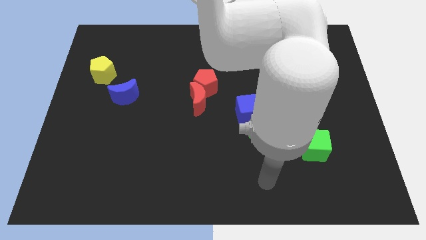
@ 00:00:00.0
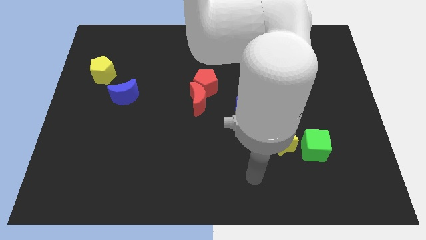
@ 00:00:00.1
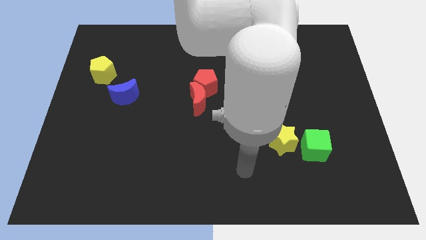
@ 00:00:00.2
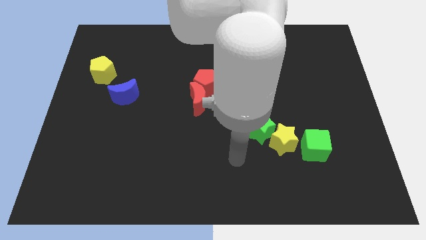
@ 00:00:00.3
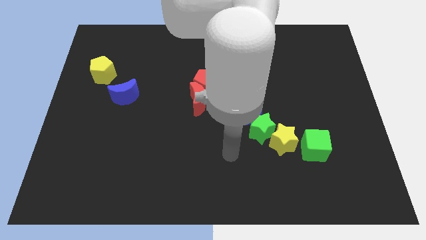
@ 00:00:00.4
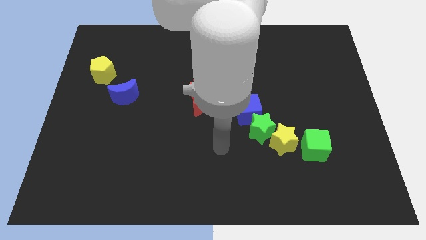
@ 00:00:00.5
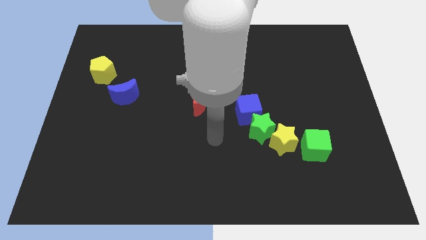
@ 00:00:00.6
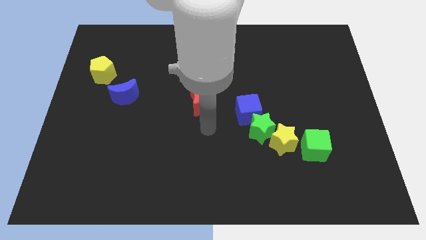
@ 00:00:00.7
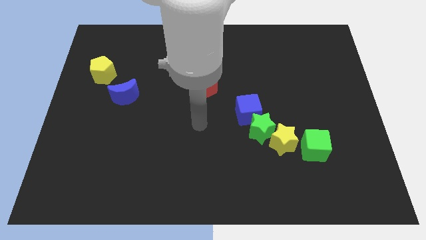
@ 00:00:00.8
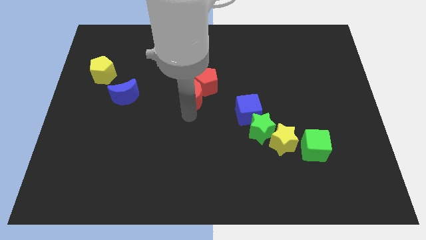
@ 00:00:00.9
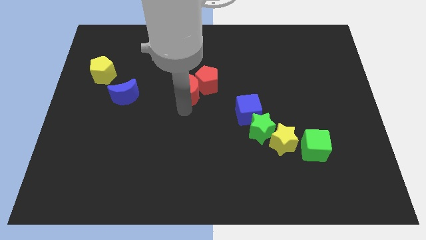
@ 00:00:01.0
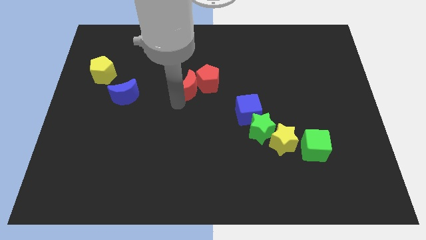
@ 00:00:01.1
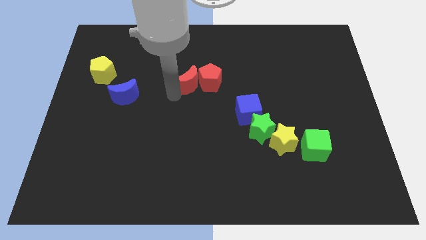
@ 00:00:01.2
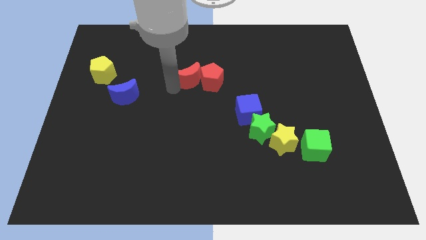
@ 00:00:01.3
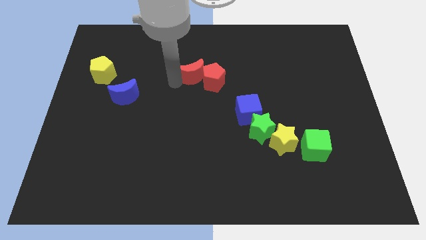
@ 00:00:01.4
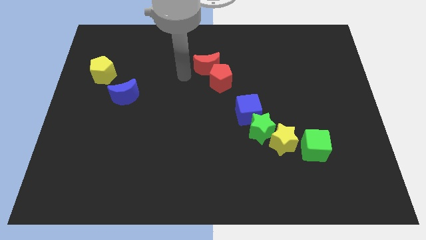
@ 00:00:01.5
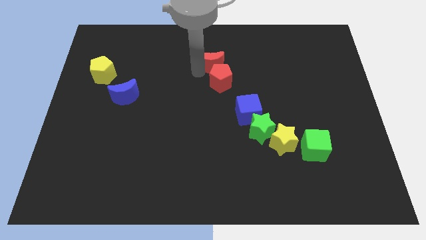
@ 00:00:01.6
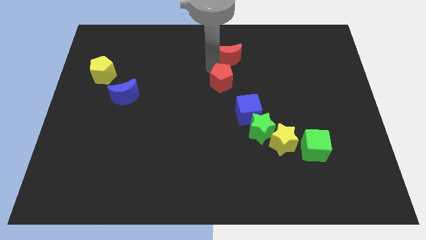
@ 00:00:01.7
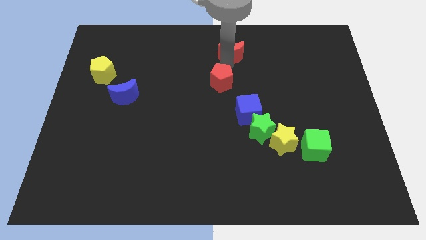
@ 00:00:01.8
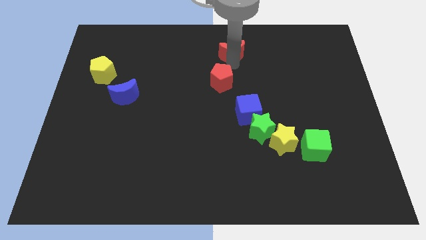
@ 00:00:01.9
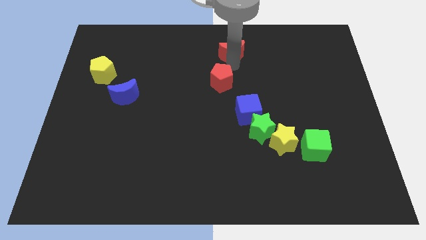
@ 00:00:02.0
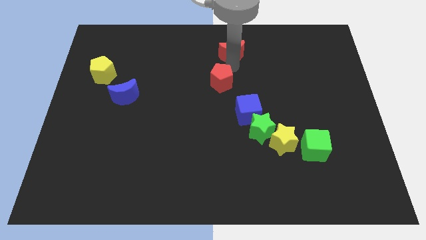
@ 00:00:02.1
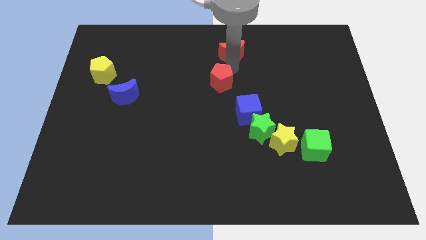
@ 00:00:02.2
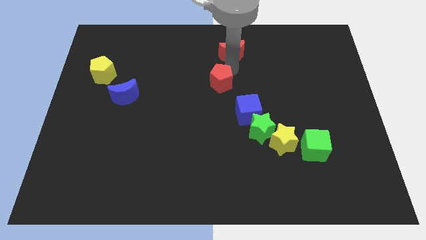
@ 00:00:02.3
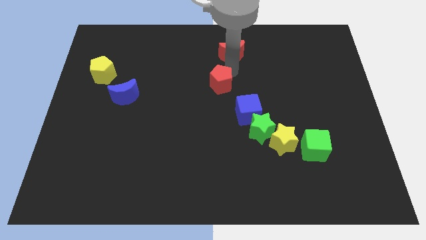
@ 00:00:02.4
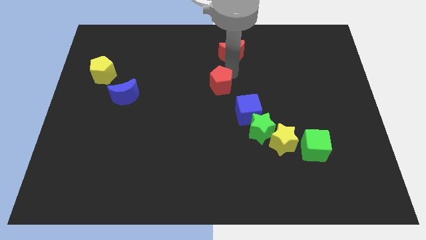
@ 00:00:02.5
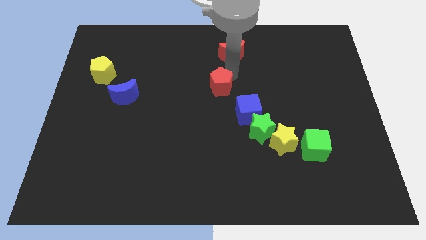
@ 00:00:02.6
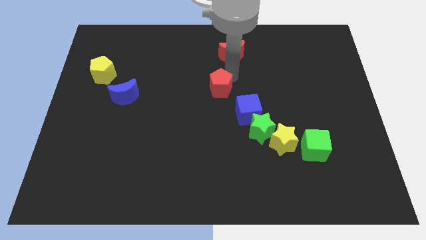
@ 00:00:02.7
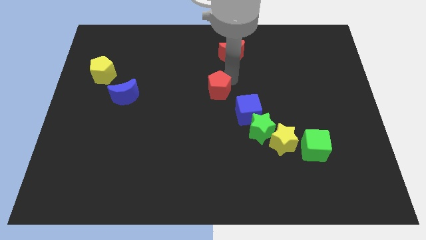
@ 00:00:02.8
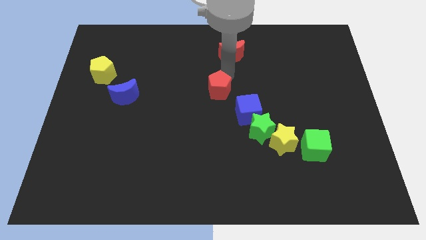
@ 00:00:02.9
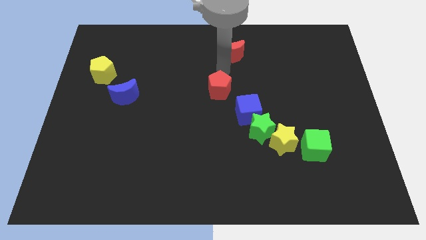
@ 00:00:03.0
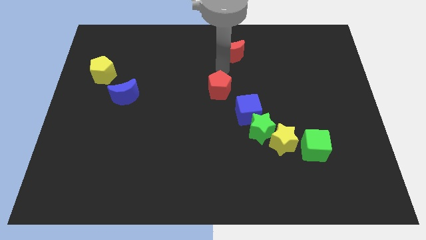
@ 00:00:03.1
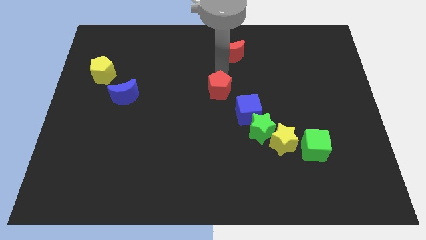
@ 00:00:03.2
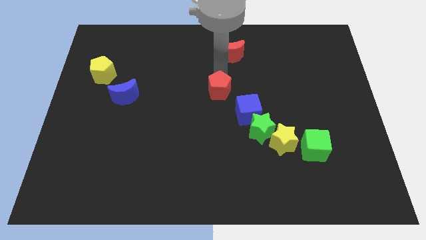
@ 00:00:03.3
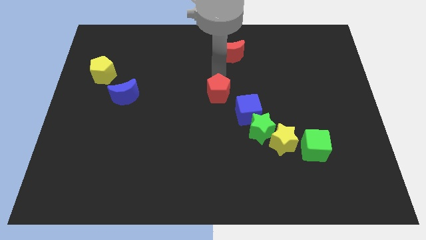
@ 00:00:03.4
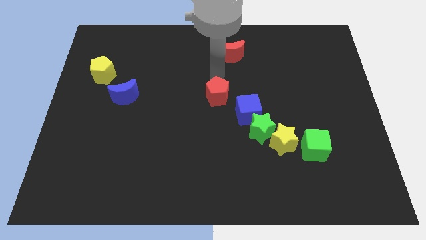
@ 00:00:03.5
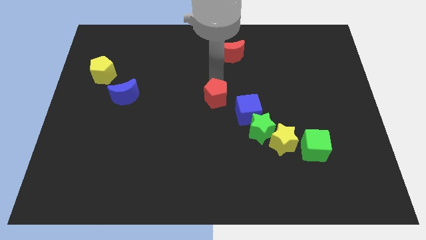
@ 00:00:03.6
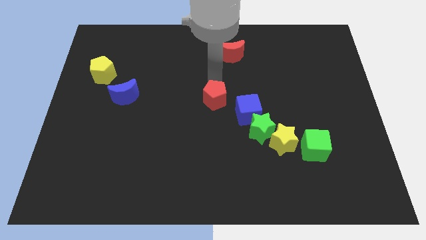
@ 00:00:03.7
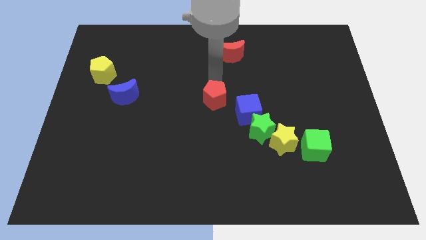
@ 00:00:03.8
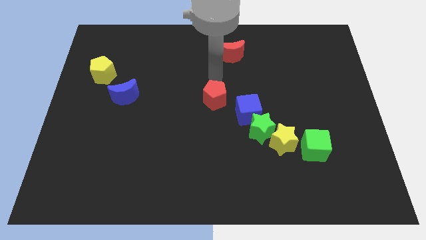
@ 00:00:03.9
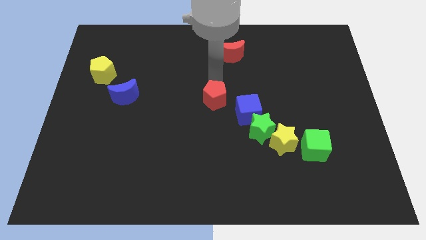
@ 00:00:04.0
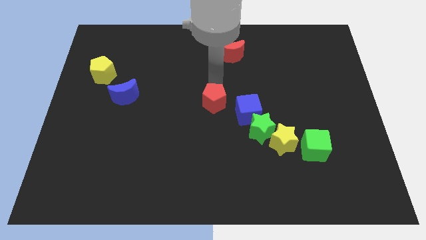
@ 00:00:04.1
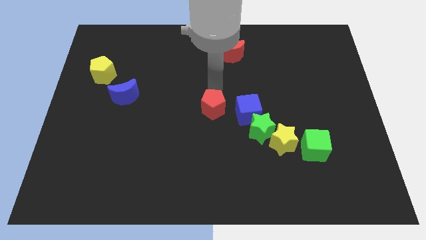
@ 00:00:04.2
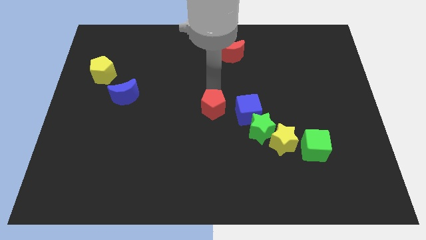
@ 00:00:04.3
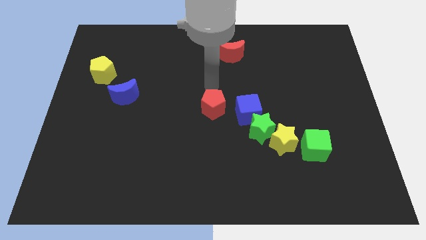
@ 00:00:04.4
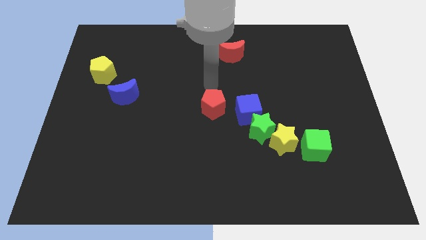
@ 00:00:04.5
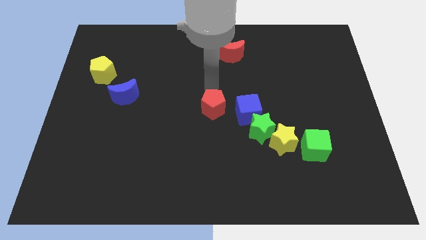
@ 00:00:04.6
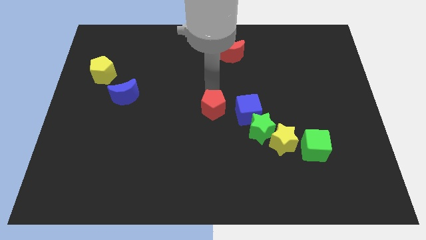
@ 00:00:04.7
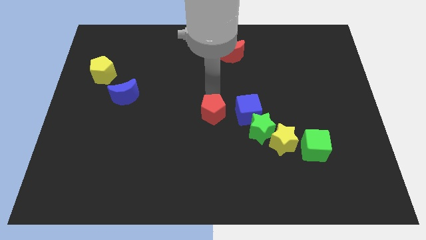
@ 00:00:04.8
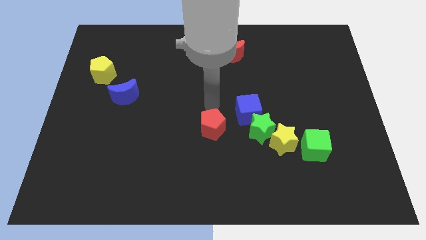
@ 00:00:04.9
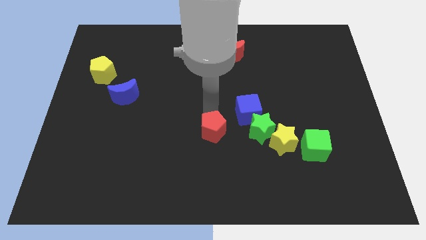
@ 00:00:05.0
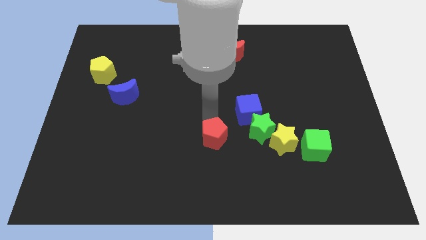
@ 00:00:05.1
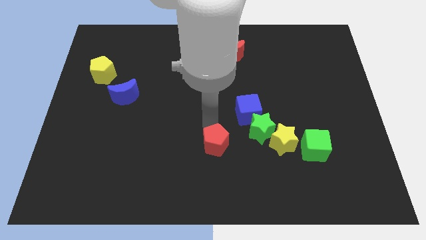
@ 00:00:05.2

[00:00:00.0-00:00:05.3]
move the red pentagon to the bottom left of the green star

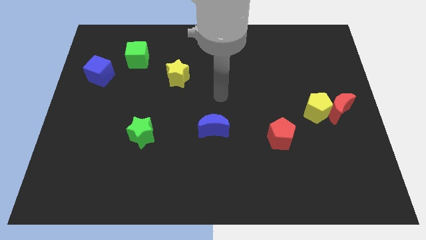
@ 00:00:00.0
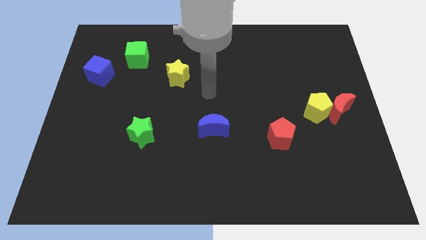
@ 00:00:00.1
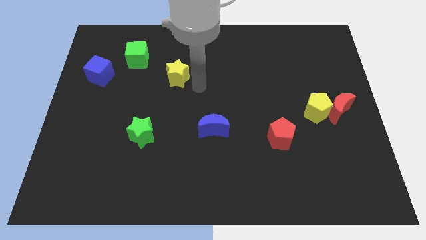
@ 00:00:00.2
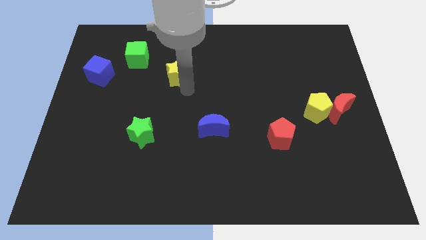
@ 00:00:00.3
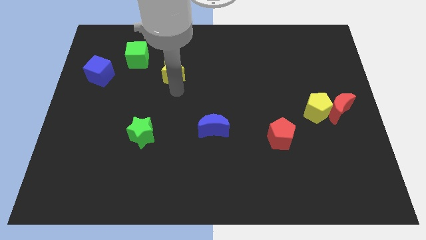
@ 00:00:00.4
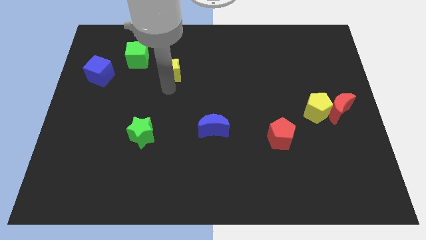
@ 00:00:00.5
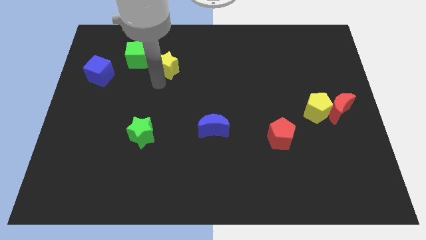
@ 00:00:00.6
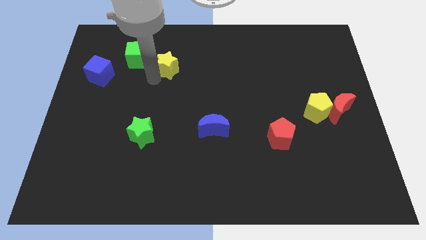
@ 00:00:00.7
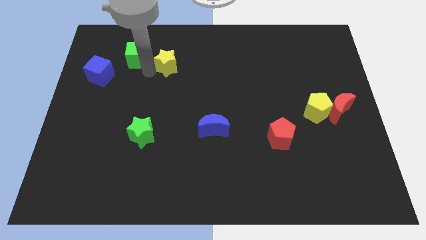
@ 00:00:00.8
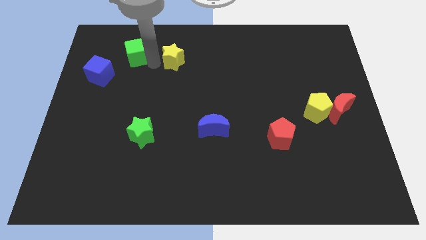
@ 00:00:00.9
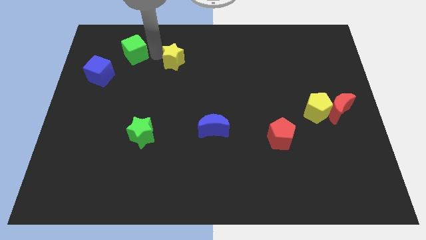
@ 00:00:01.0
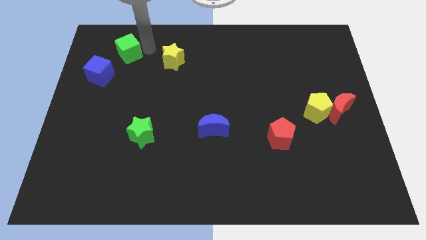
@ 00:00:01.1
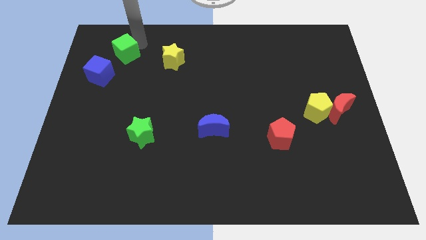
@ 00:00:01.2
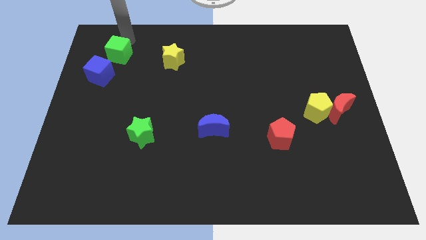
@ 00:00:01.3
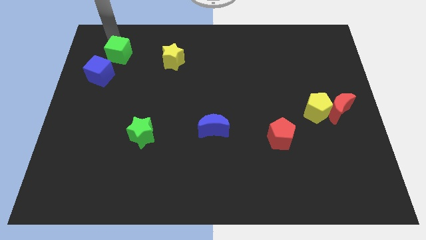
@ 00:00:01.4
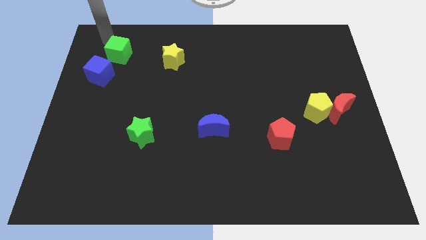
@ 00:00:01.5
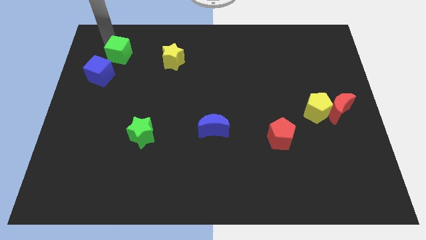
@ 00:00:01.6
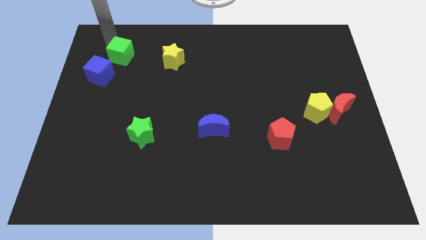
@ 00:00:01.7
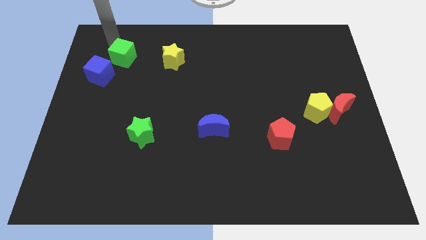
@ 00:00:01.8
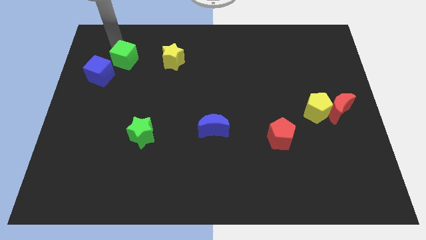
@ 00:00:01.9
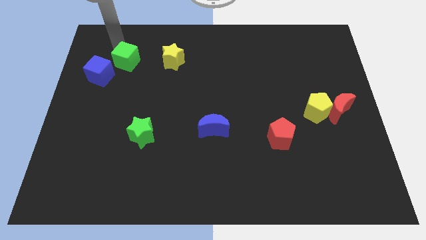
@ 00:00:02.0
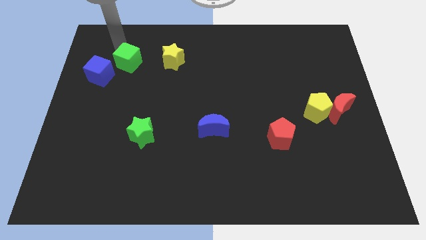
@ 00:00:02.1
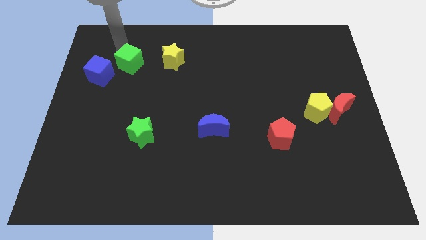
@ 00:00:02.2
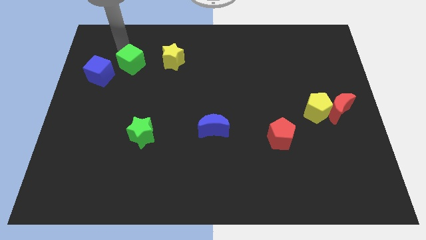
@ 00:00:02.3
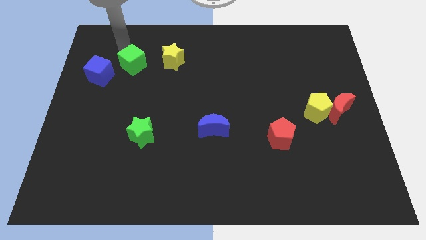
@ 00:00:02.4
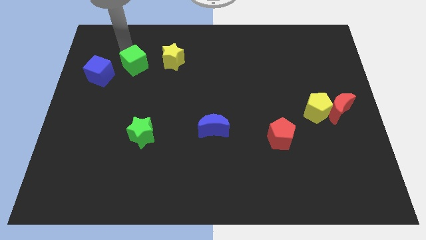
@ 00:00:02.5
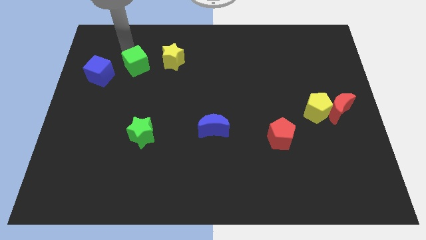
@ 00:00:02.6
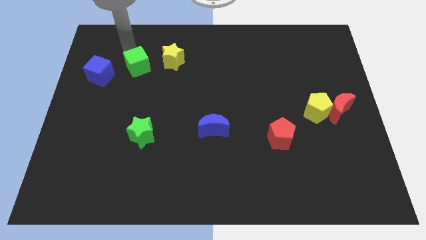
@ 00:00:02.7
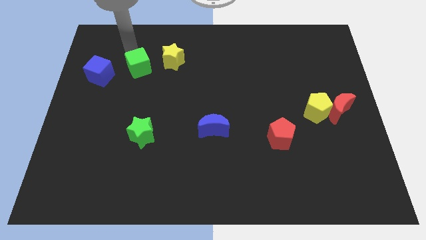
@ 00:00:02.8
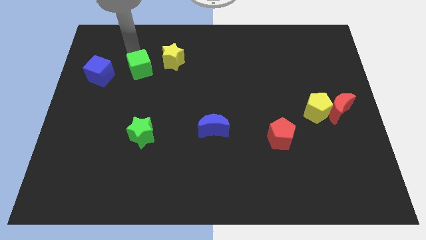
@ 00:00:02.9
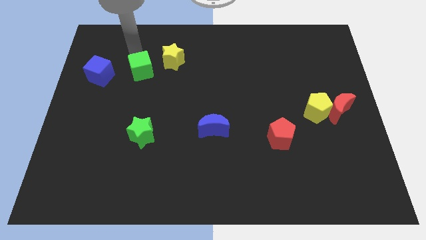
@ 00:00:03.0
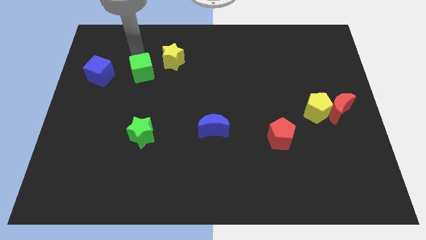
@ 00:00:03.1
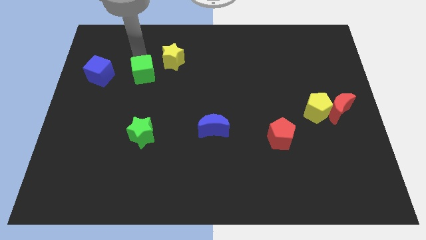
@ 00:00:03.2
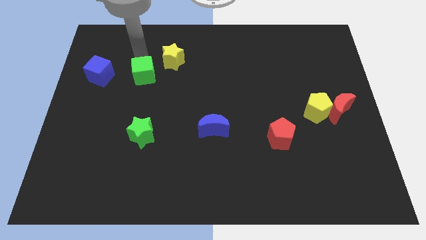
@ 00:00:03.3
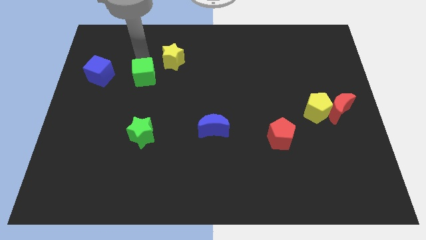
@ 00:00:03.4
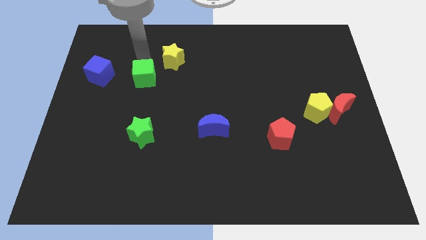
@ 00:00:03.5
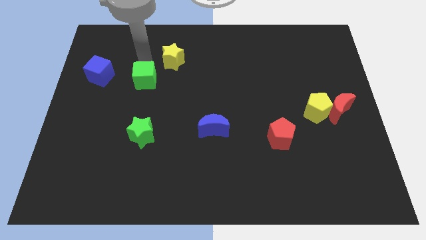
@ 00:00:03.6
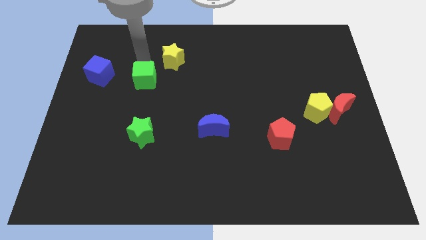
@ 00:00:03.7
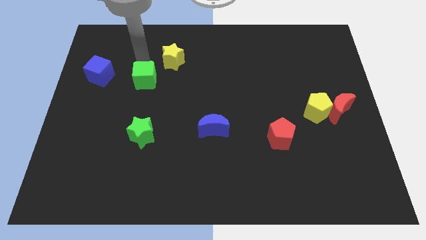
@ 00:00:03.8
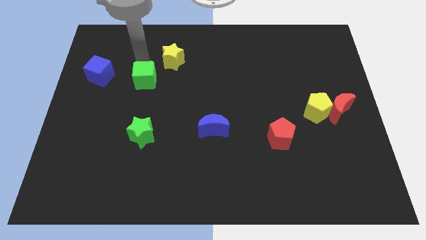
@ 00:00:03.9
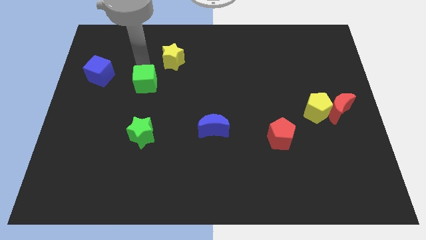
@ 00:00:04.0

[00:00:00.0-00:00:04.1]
slide the green cube to the top side of the green star
